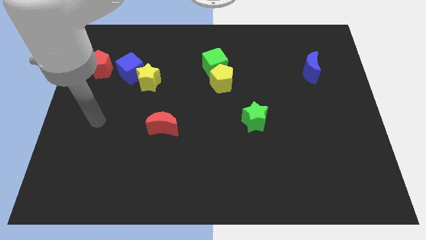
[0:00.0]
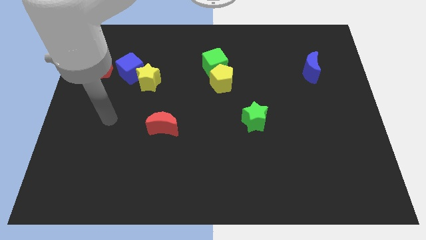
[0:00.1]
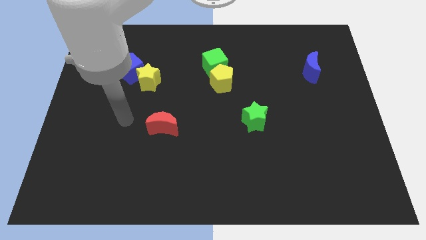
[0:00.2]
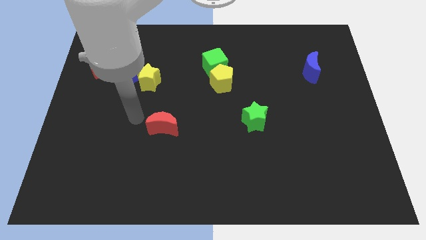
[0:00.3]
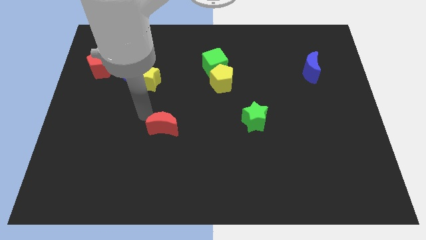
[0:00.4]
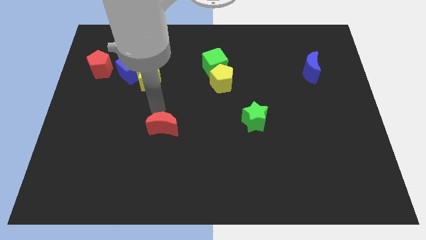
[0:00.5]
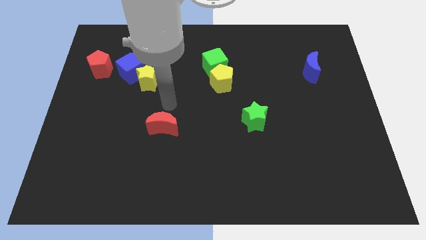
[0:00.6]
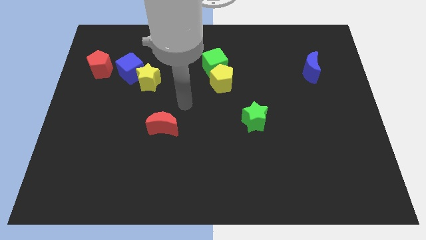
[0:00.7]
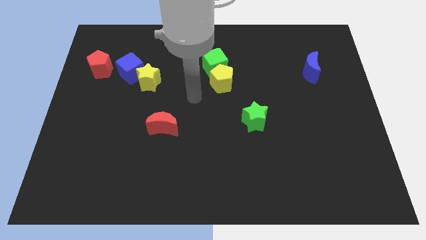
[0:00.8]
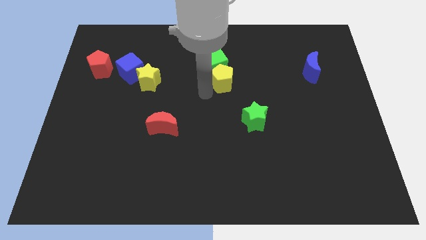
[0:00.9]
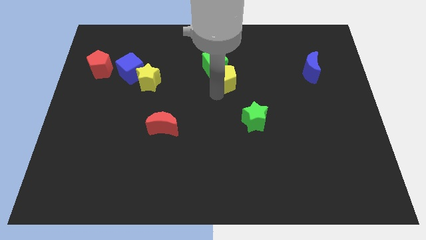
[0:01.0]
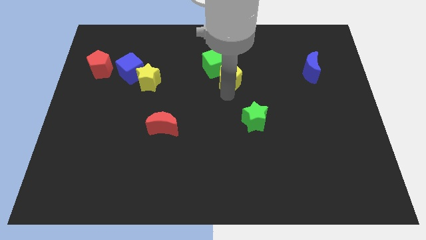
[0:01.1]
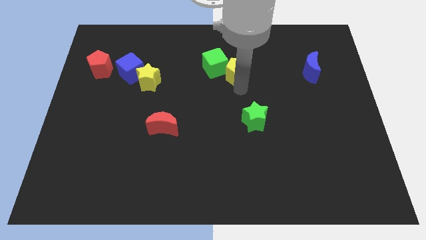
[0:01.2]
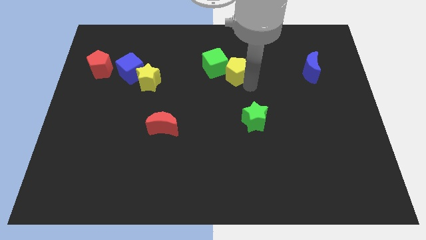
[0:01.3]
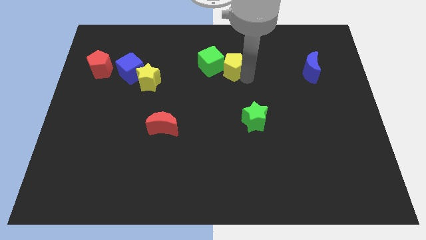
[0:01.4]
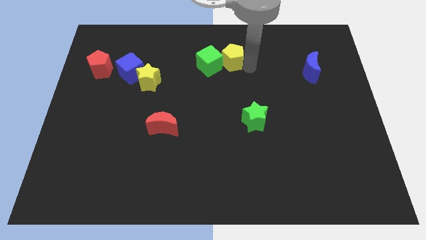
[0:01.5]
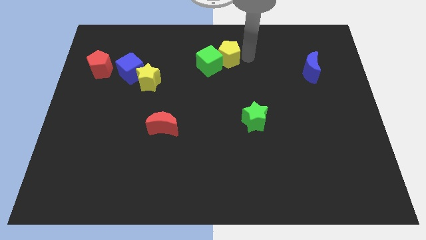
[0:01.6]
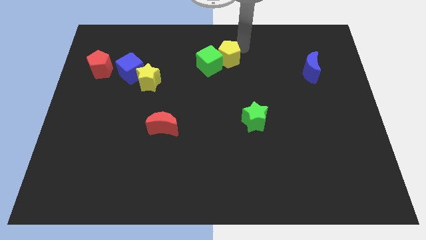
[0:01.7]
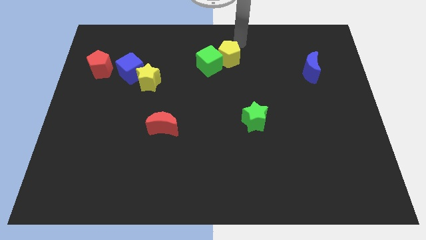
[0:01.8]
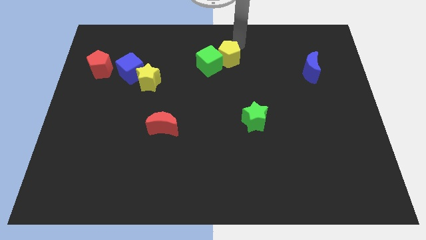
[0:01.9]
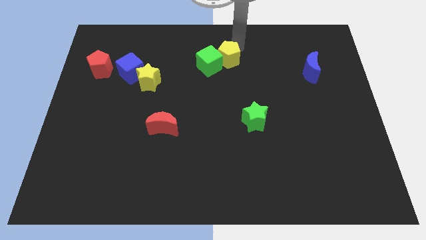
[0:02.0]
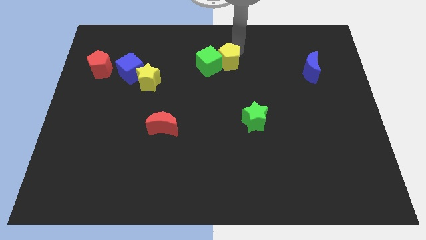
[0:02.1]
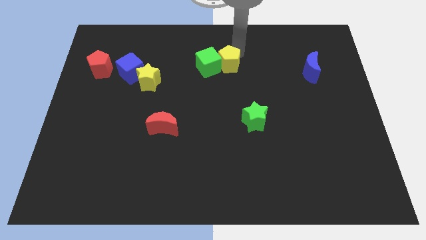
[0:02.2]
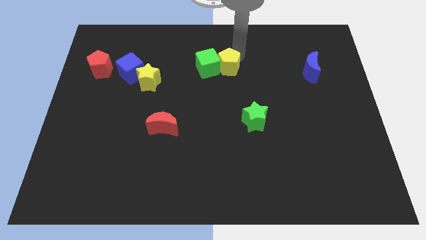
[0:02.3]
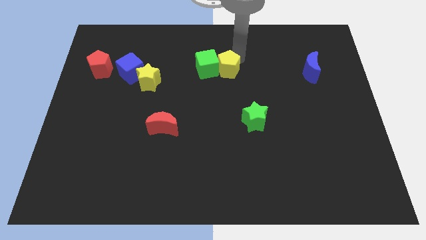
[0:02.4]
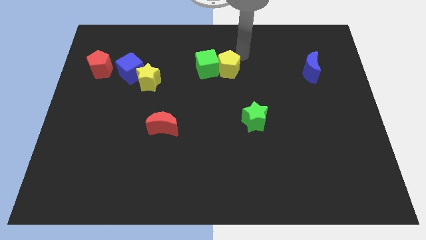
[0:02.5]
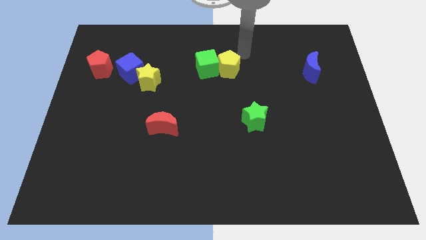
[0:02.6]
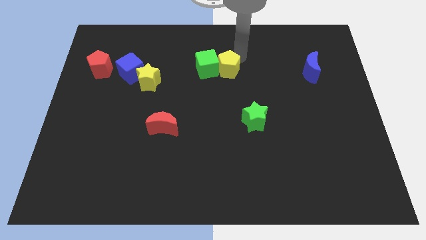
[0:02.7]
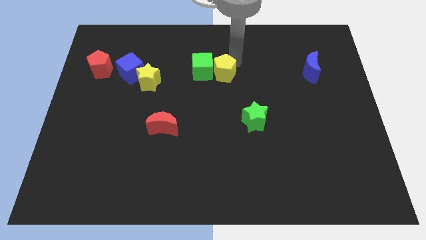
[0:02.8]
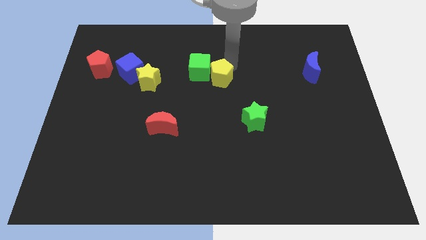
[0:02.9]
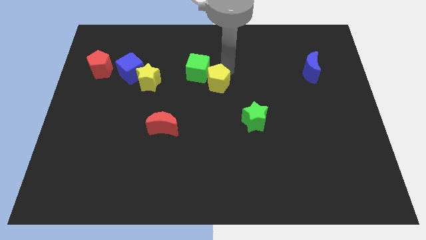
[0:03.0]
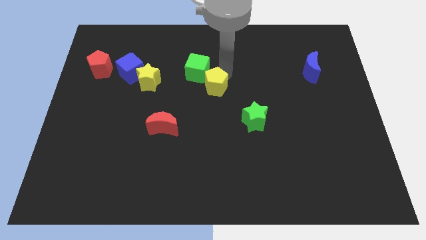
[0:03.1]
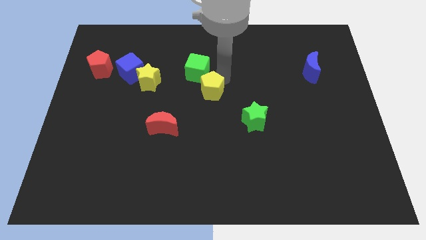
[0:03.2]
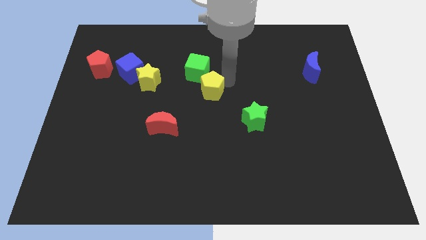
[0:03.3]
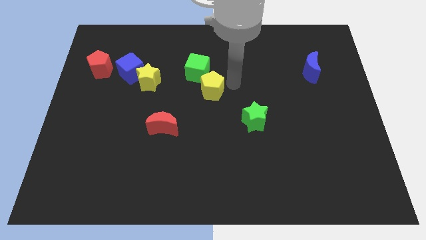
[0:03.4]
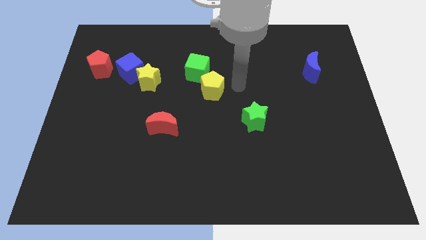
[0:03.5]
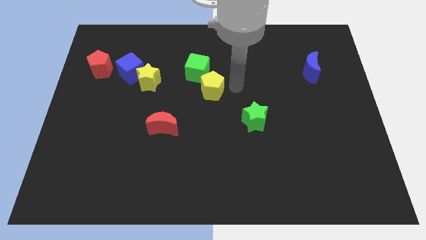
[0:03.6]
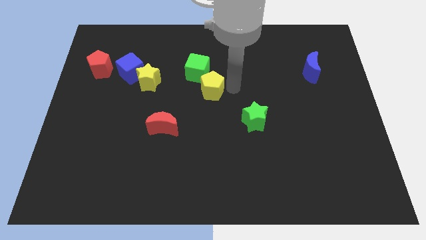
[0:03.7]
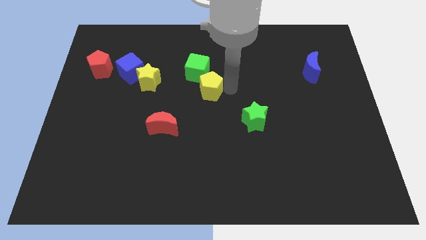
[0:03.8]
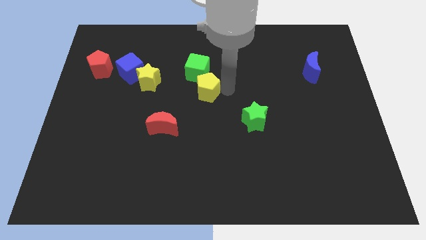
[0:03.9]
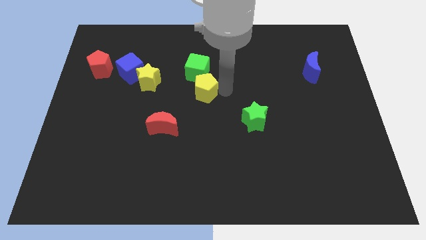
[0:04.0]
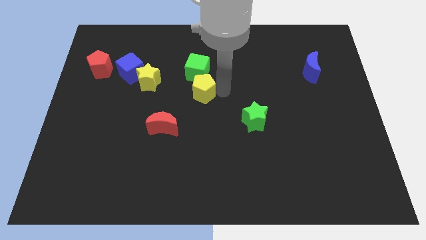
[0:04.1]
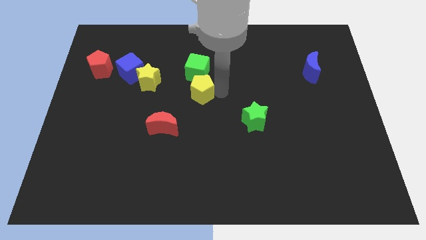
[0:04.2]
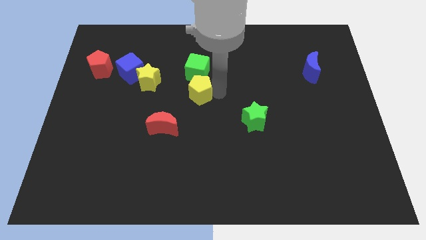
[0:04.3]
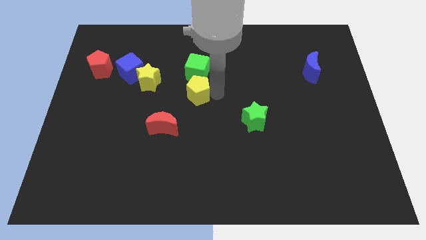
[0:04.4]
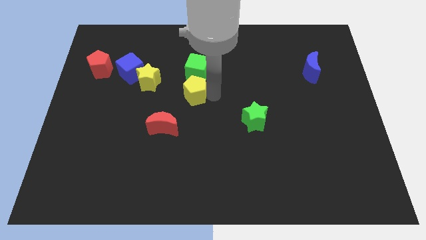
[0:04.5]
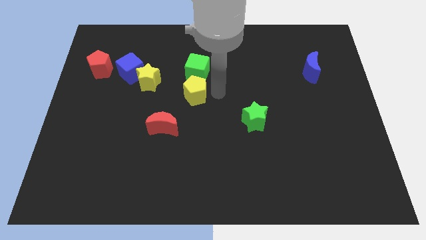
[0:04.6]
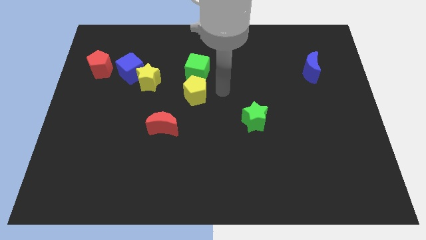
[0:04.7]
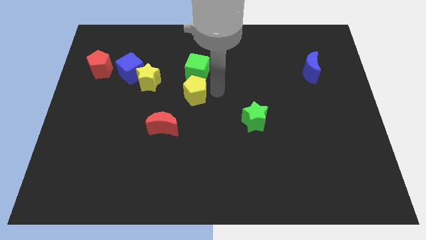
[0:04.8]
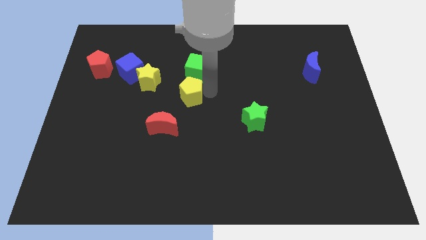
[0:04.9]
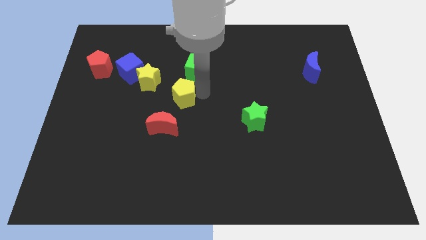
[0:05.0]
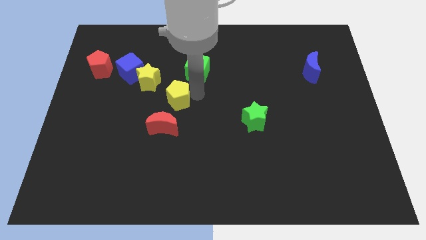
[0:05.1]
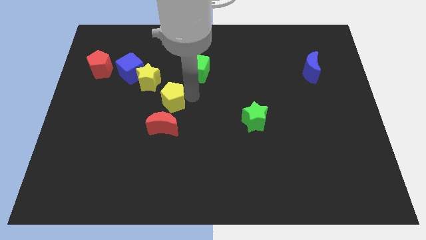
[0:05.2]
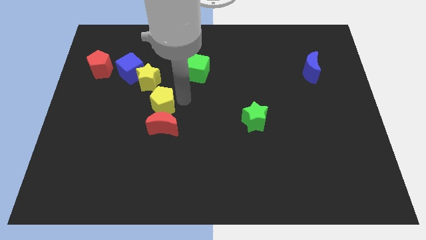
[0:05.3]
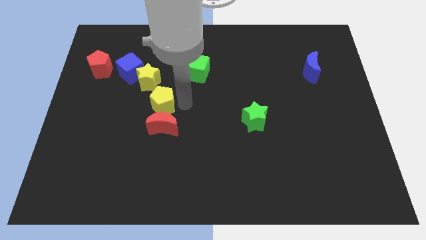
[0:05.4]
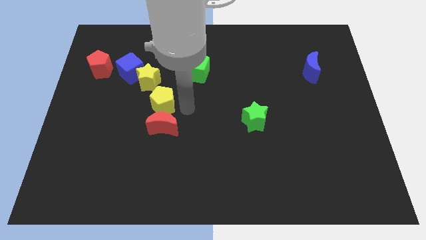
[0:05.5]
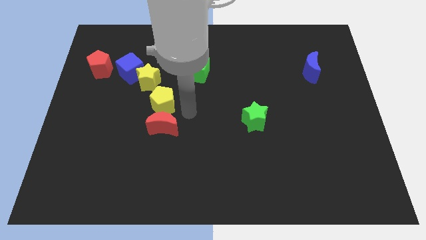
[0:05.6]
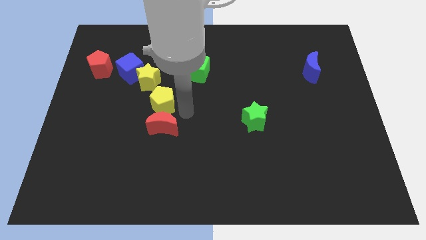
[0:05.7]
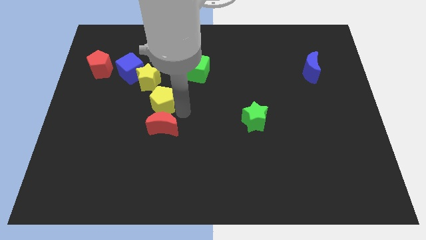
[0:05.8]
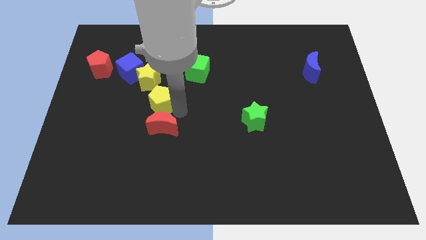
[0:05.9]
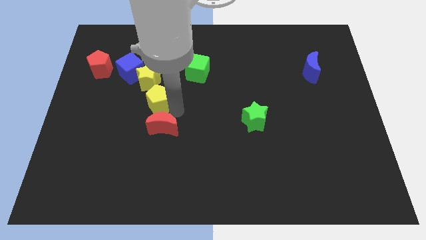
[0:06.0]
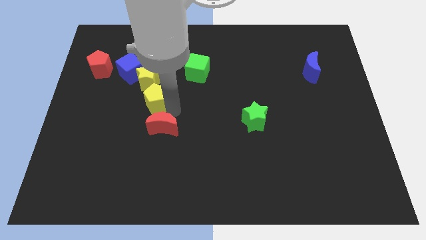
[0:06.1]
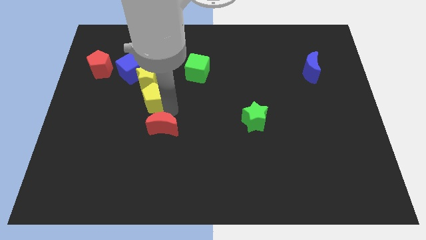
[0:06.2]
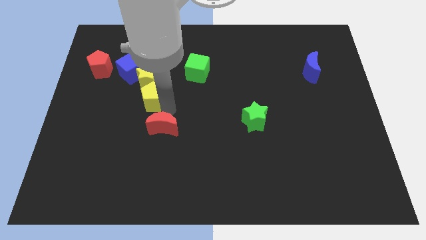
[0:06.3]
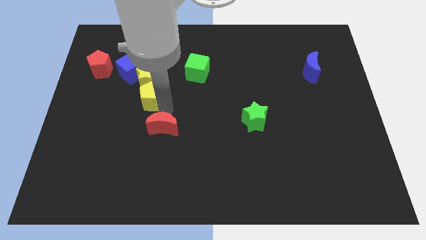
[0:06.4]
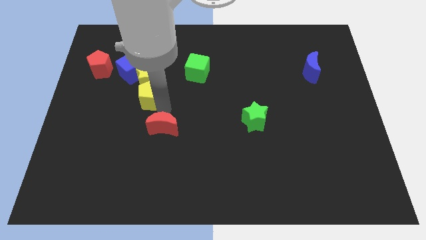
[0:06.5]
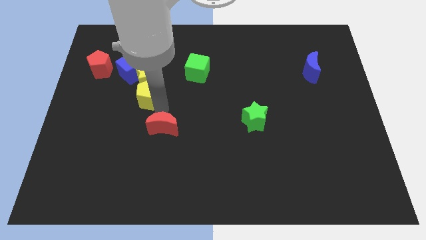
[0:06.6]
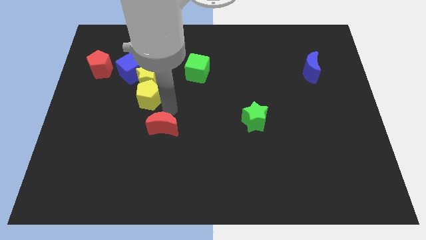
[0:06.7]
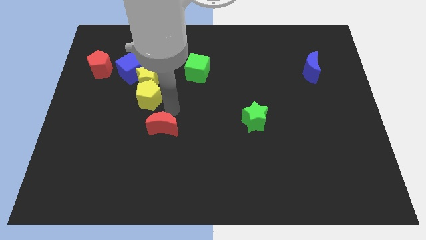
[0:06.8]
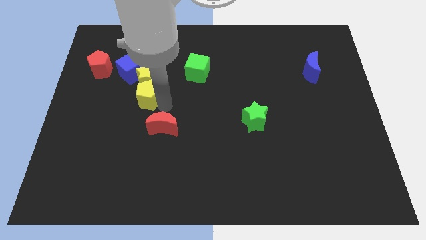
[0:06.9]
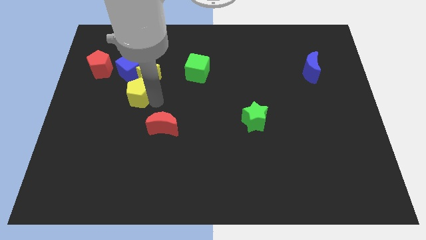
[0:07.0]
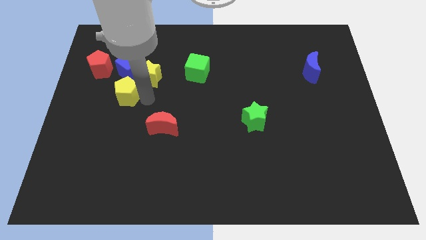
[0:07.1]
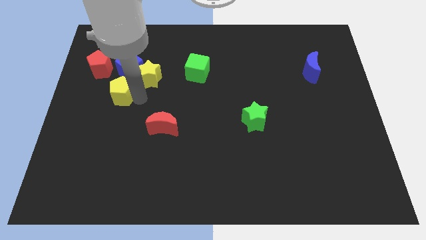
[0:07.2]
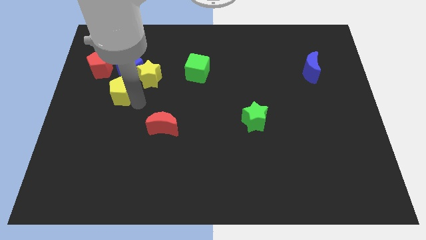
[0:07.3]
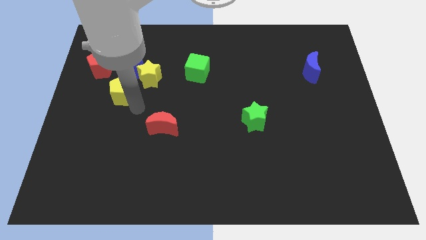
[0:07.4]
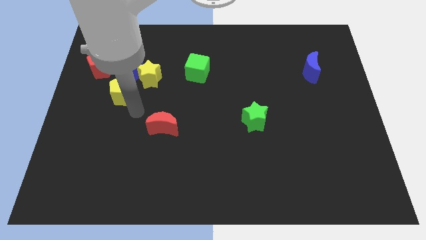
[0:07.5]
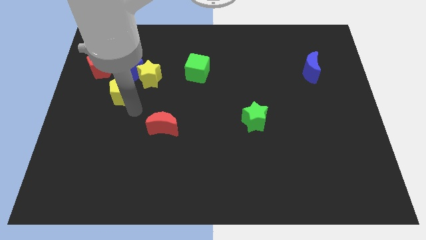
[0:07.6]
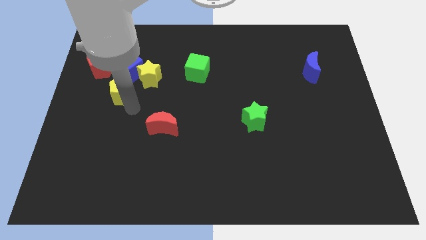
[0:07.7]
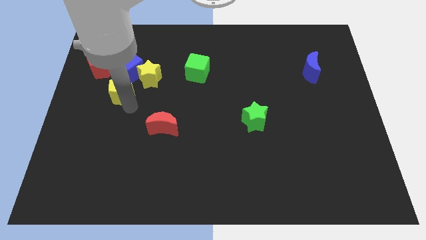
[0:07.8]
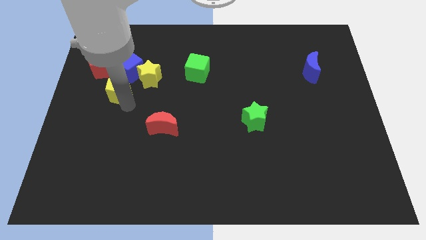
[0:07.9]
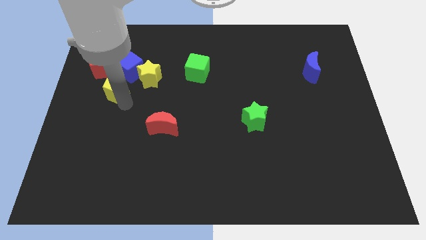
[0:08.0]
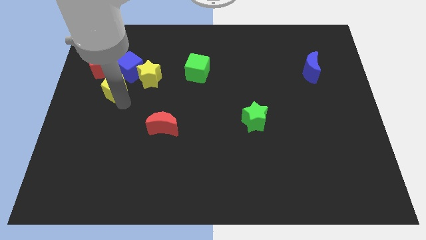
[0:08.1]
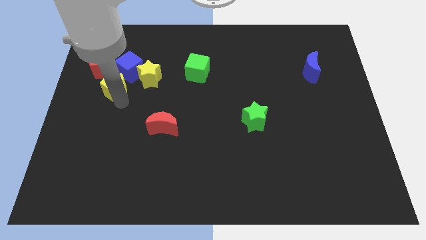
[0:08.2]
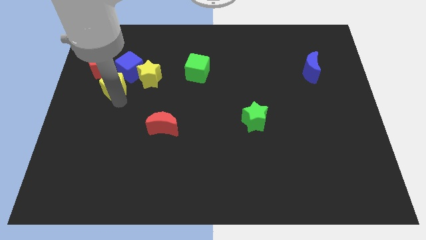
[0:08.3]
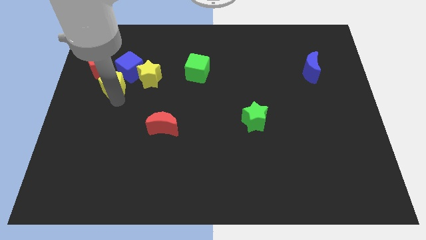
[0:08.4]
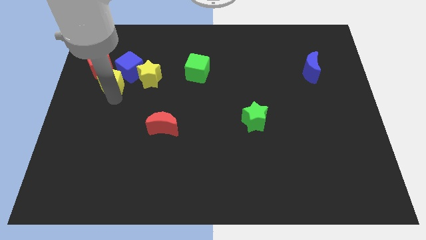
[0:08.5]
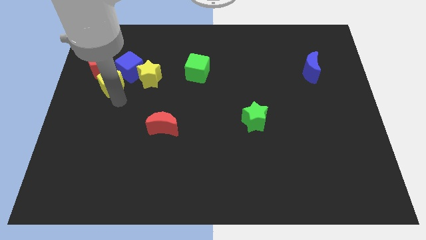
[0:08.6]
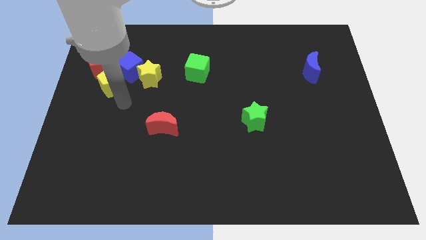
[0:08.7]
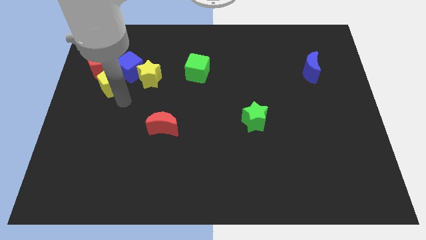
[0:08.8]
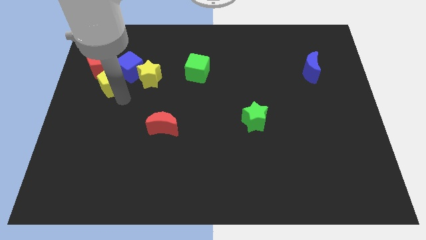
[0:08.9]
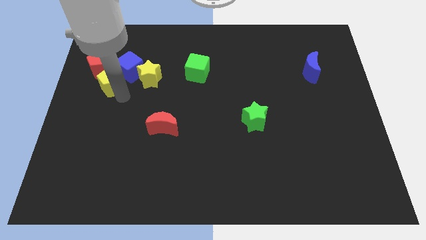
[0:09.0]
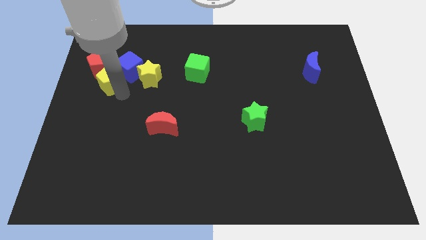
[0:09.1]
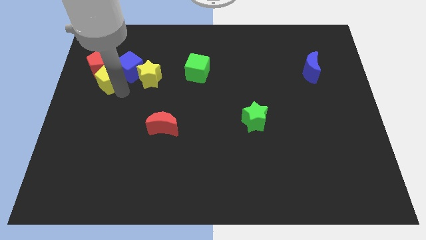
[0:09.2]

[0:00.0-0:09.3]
put the yellow pentagon to the red pentagon
